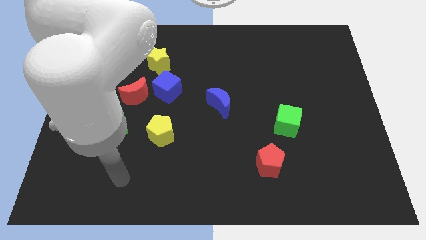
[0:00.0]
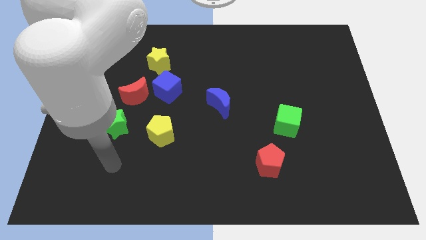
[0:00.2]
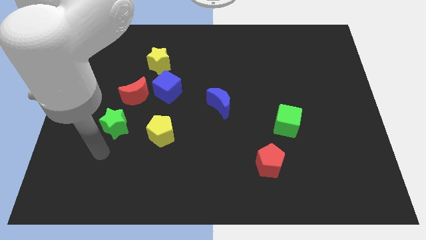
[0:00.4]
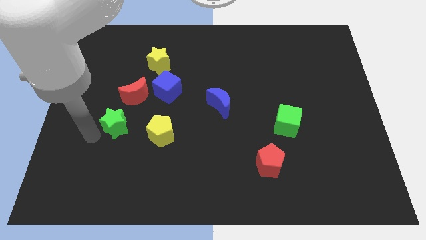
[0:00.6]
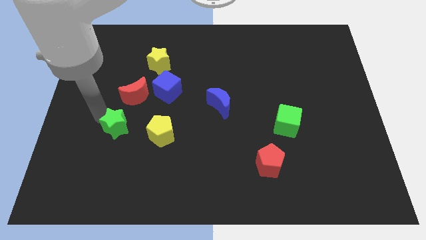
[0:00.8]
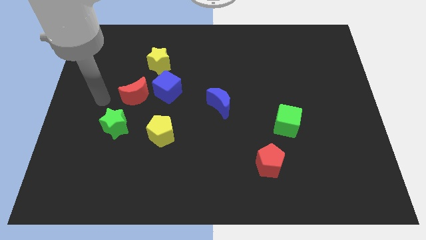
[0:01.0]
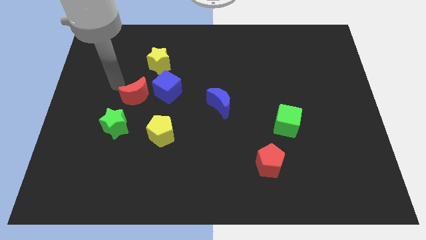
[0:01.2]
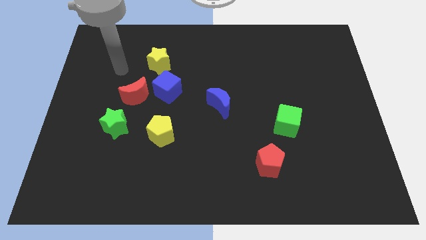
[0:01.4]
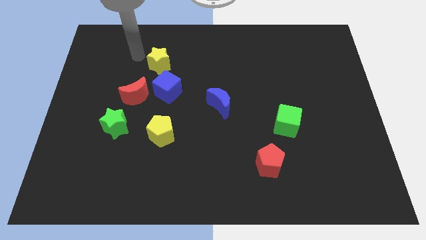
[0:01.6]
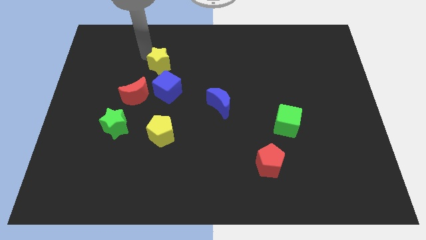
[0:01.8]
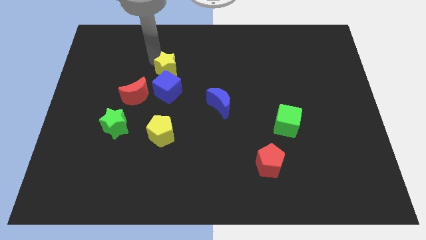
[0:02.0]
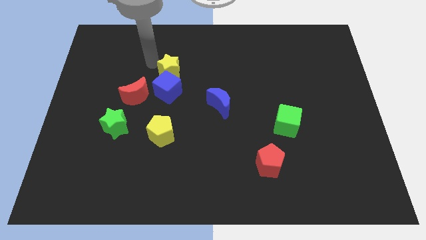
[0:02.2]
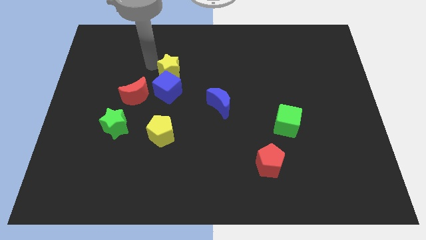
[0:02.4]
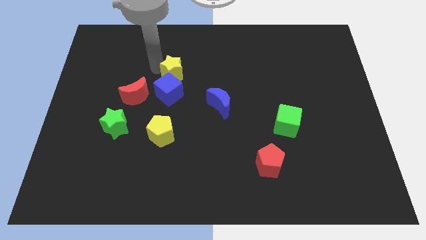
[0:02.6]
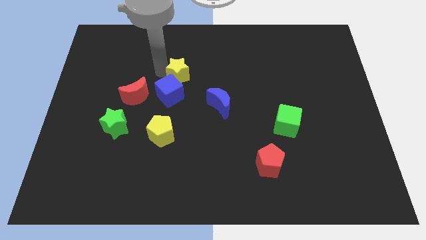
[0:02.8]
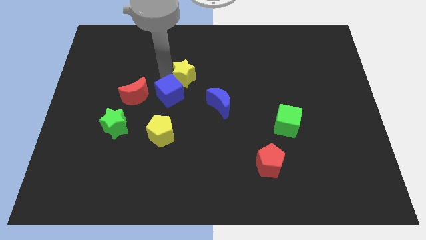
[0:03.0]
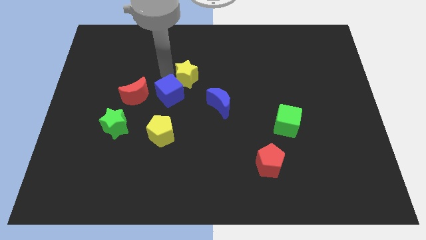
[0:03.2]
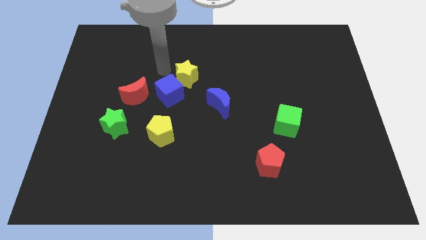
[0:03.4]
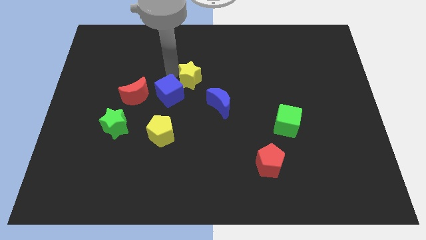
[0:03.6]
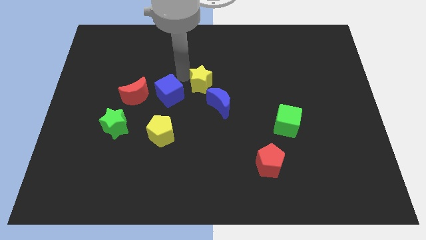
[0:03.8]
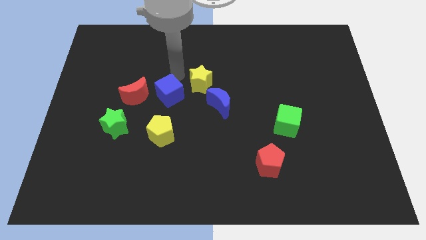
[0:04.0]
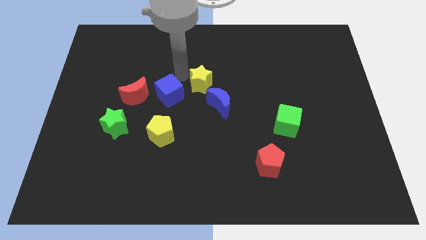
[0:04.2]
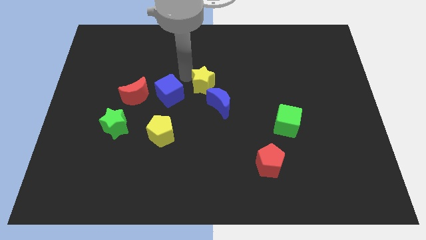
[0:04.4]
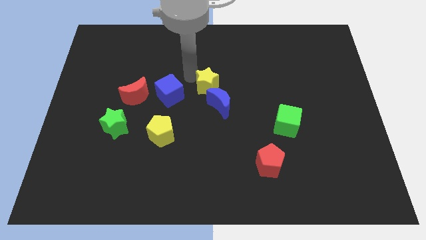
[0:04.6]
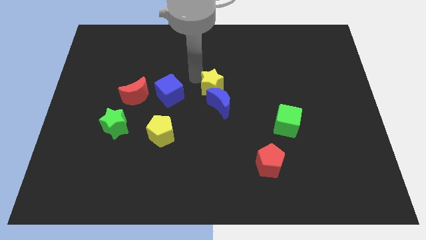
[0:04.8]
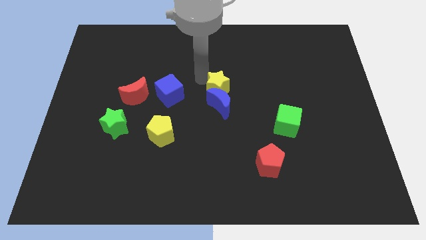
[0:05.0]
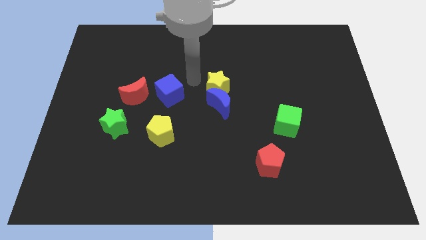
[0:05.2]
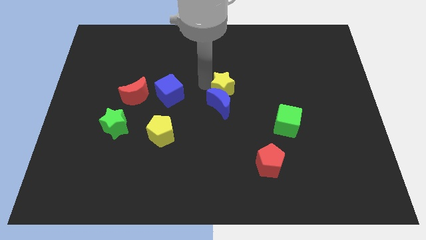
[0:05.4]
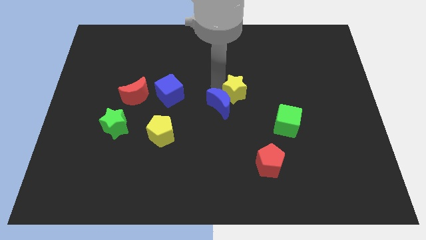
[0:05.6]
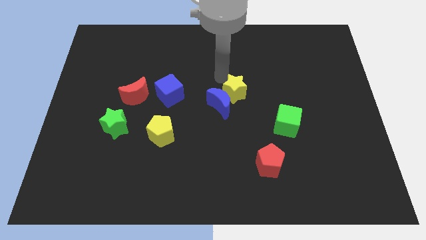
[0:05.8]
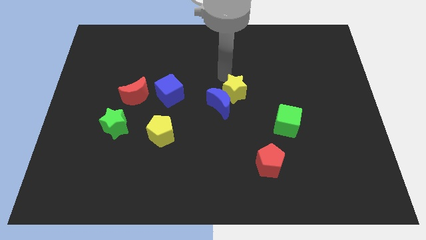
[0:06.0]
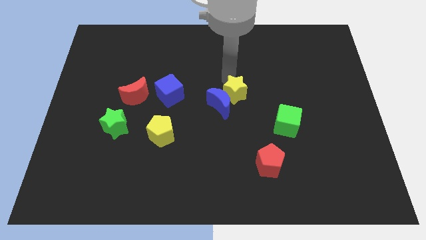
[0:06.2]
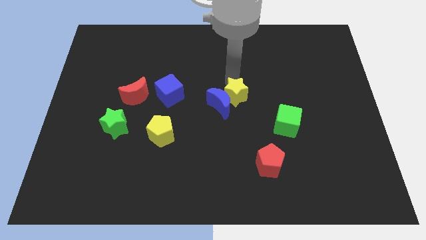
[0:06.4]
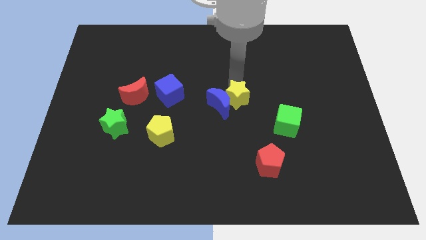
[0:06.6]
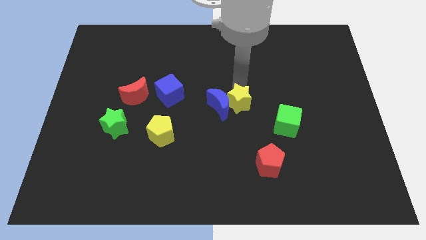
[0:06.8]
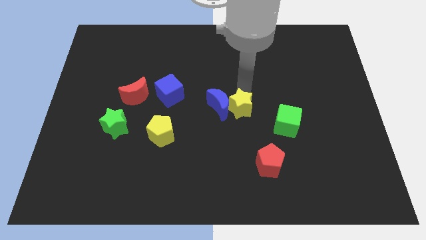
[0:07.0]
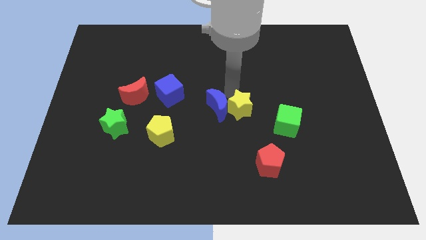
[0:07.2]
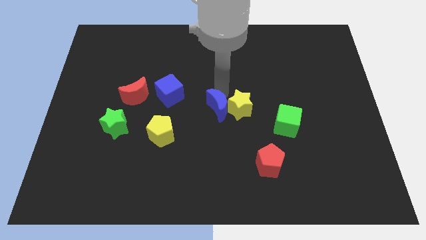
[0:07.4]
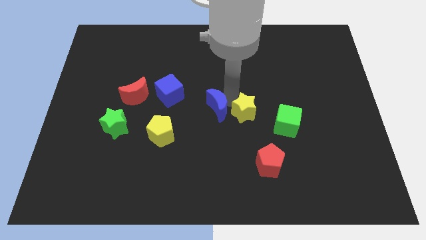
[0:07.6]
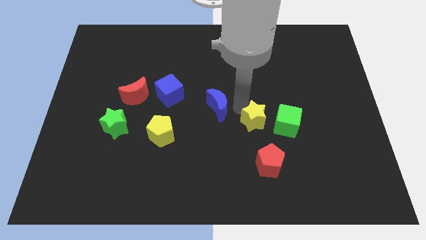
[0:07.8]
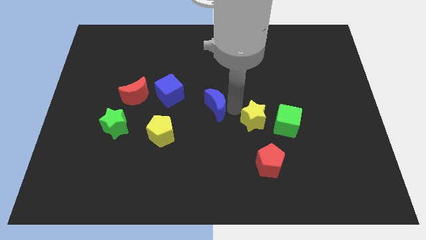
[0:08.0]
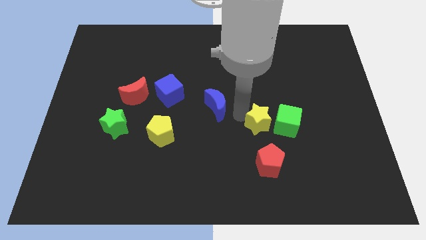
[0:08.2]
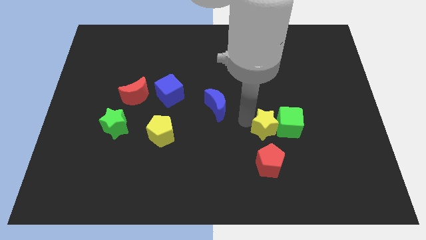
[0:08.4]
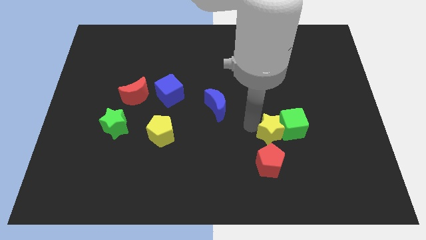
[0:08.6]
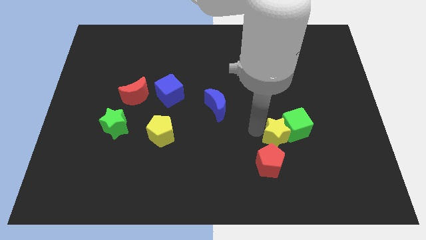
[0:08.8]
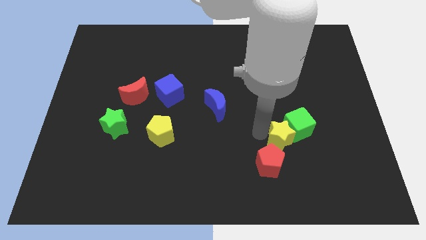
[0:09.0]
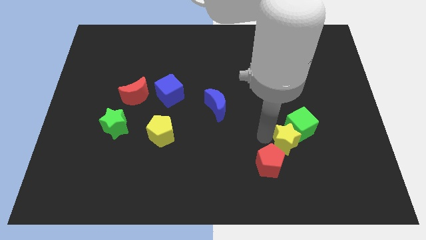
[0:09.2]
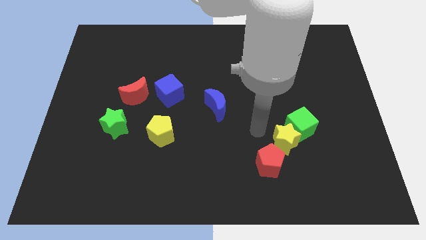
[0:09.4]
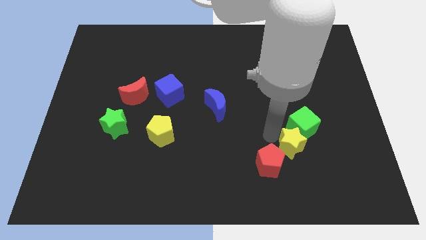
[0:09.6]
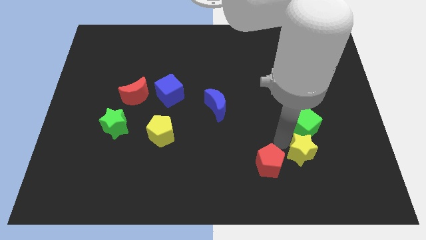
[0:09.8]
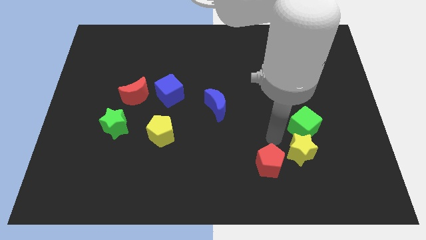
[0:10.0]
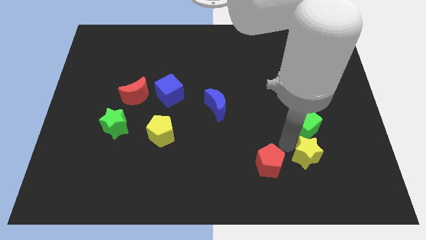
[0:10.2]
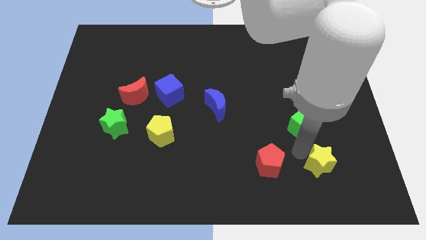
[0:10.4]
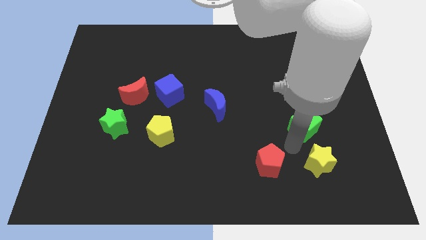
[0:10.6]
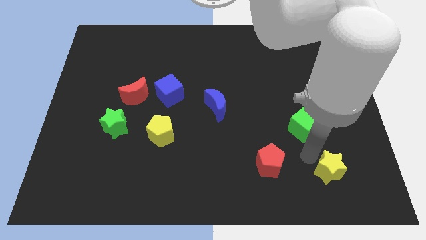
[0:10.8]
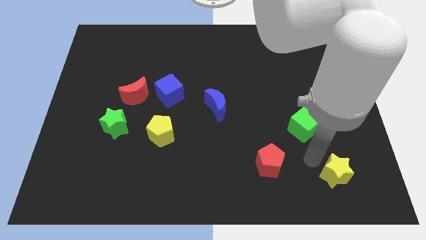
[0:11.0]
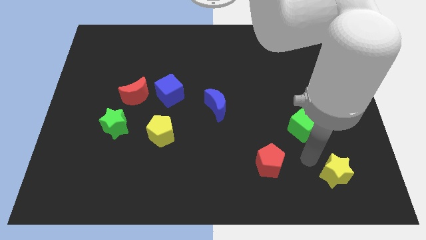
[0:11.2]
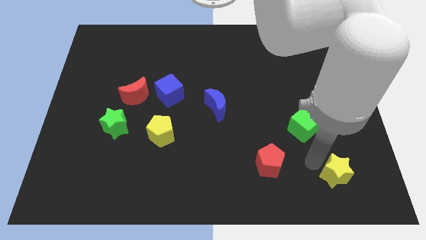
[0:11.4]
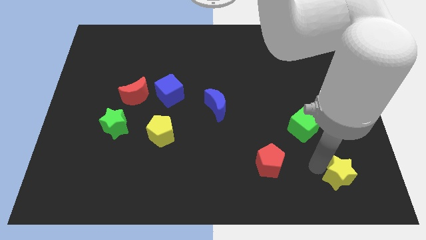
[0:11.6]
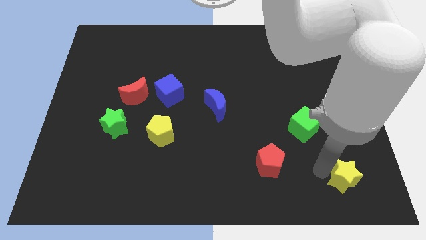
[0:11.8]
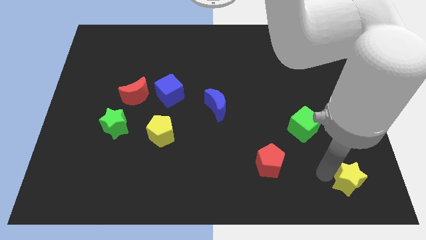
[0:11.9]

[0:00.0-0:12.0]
move the yellow star to the bottom right corner
